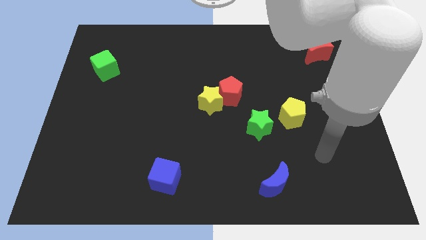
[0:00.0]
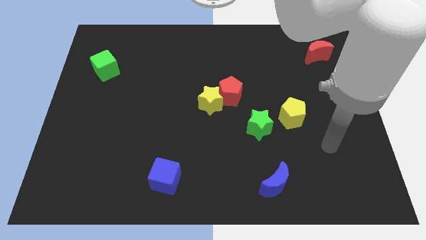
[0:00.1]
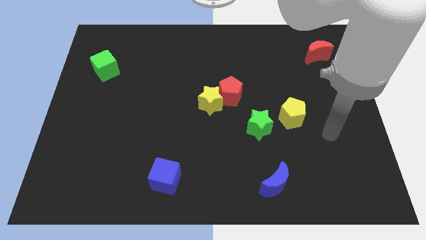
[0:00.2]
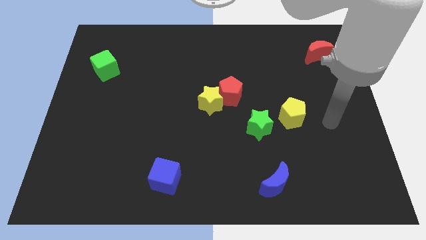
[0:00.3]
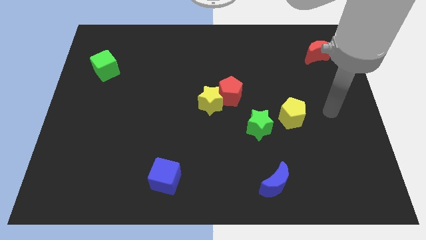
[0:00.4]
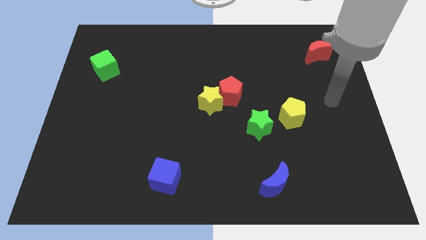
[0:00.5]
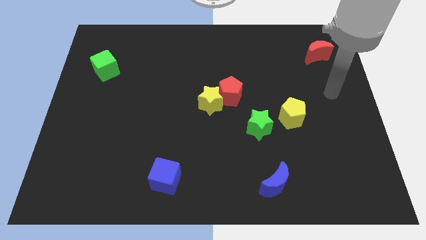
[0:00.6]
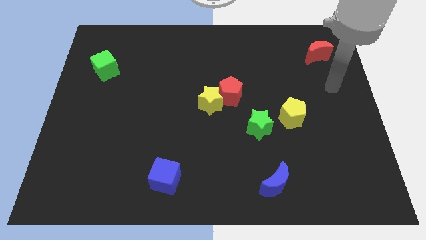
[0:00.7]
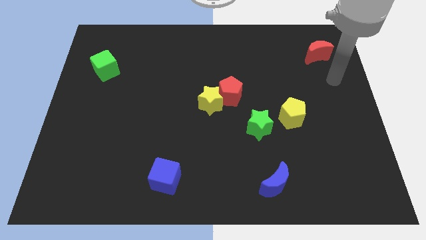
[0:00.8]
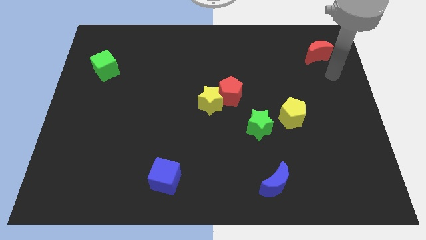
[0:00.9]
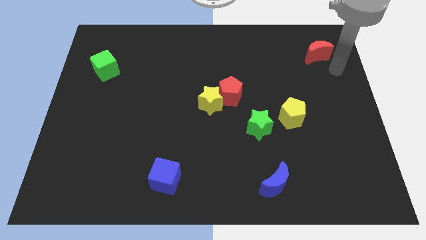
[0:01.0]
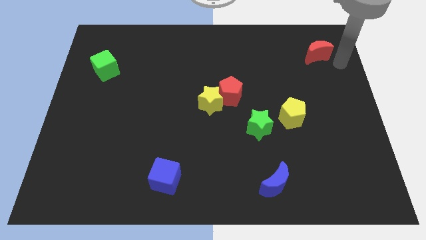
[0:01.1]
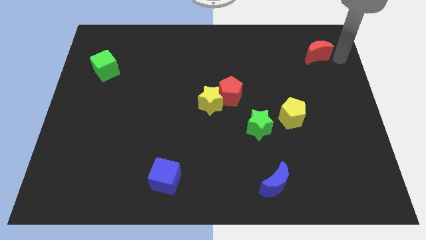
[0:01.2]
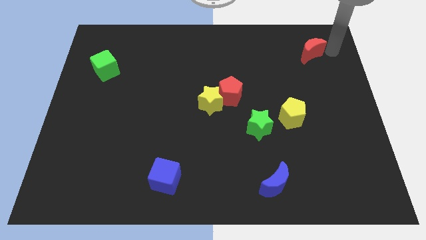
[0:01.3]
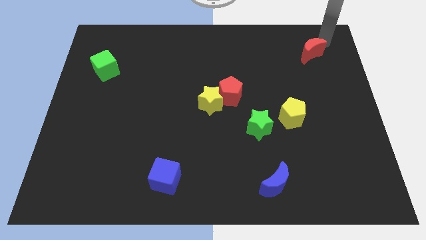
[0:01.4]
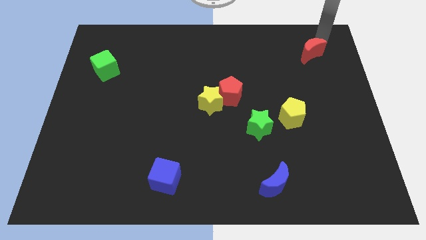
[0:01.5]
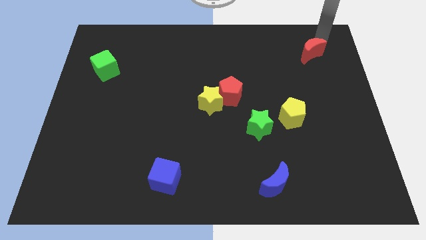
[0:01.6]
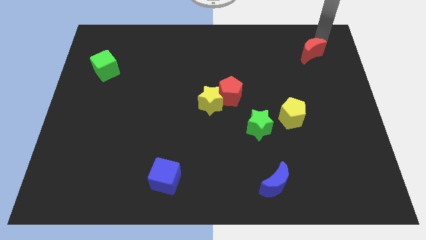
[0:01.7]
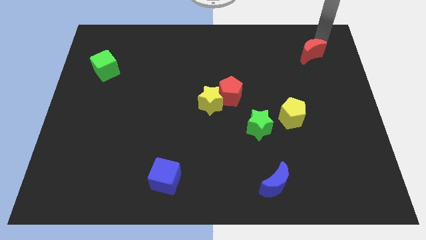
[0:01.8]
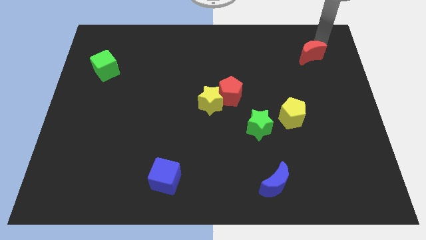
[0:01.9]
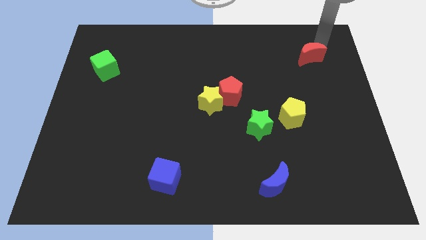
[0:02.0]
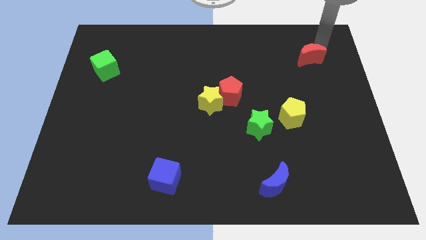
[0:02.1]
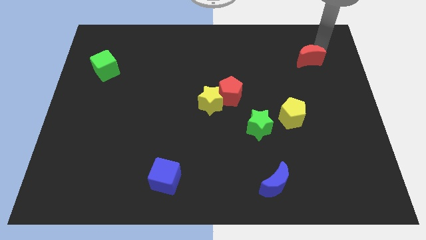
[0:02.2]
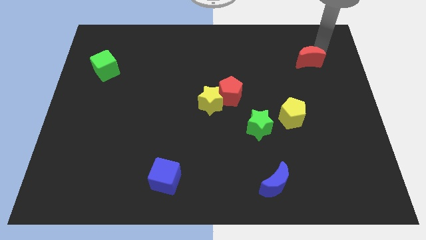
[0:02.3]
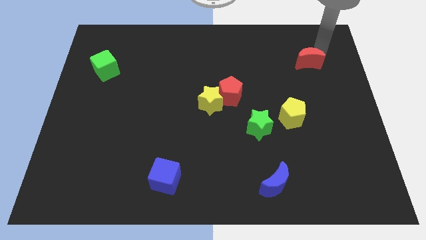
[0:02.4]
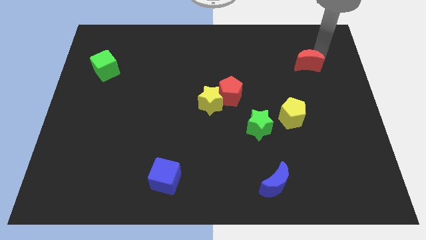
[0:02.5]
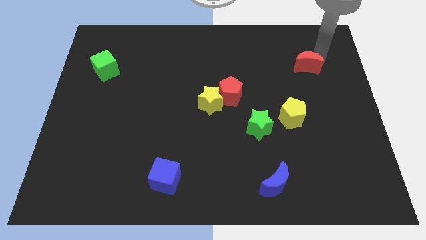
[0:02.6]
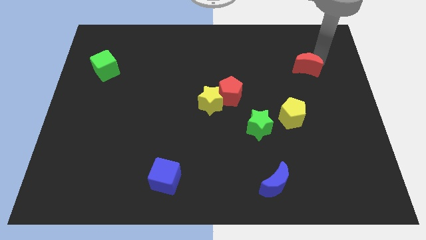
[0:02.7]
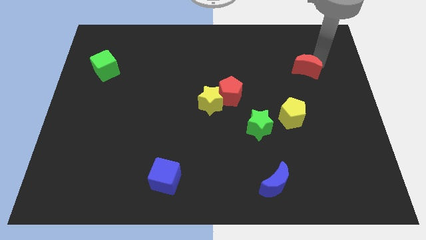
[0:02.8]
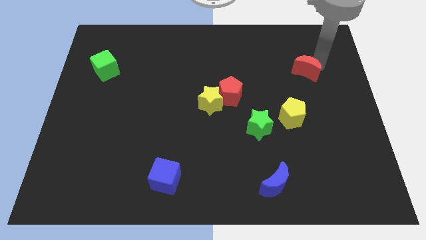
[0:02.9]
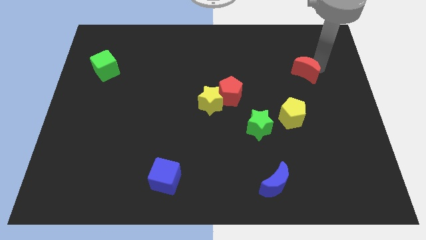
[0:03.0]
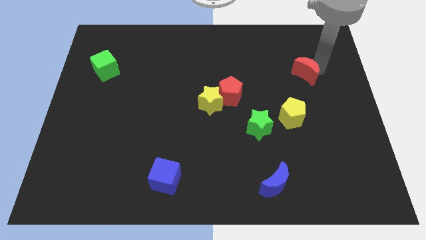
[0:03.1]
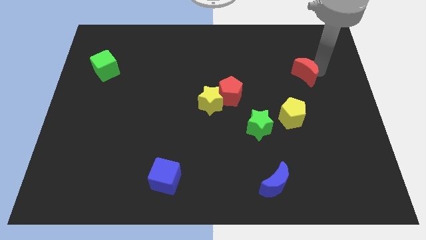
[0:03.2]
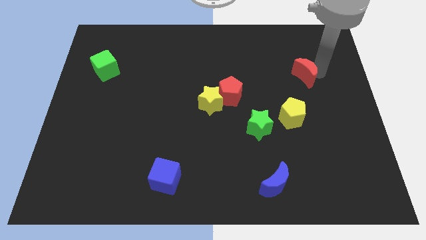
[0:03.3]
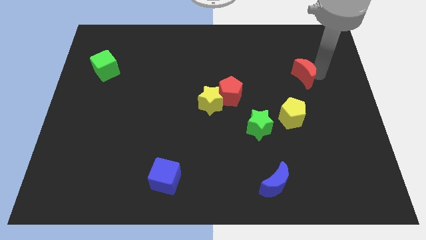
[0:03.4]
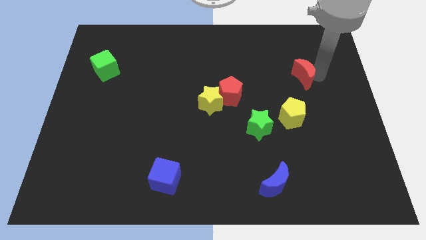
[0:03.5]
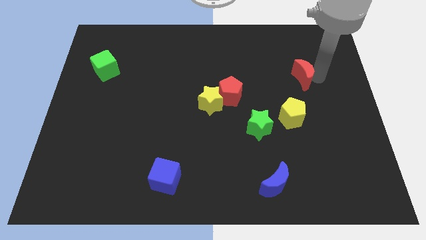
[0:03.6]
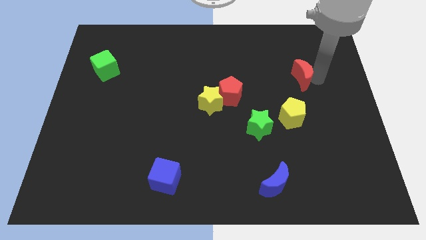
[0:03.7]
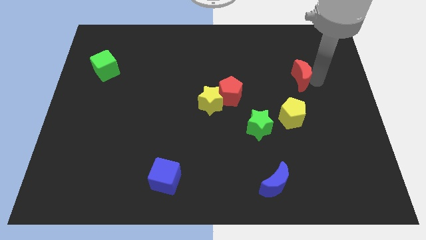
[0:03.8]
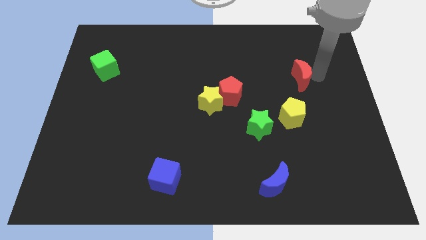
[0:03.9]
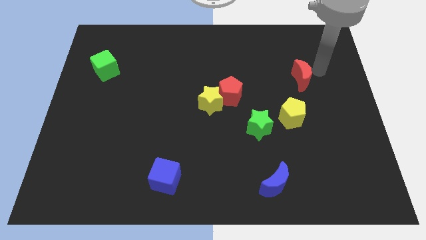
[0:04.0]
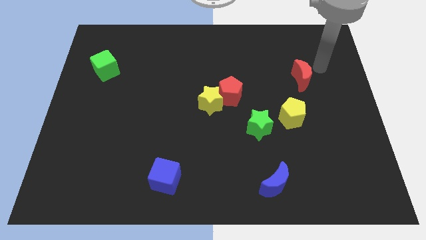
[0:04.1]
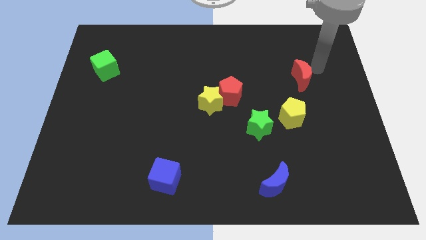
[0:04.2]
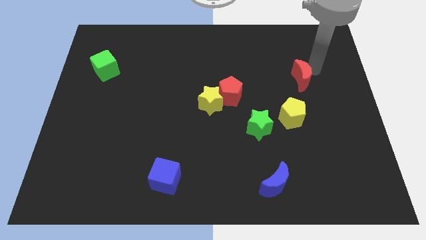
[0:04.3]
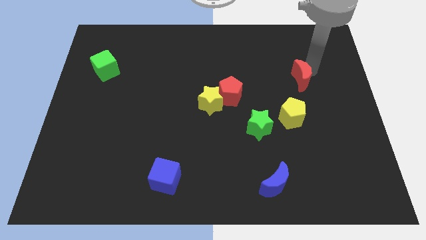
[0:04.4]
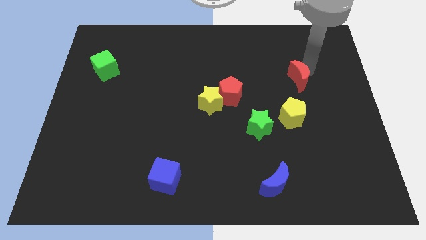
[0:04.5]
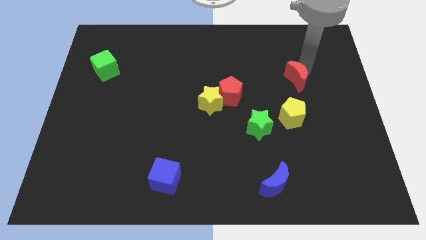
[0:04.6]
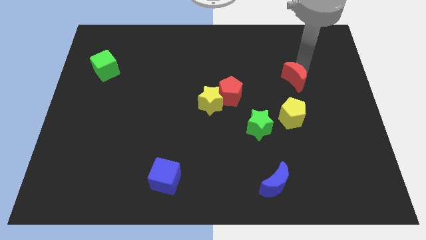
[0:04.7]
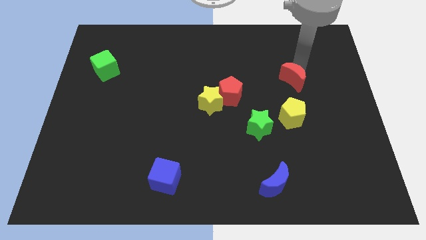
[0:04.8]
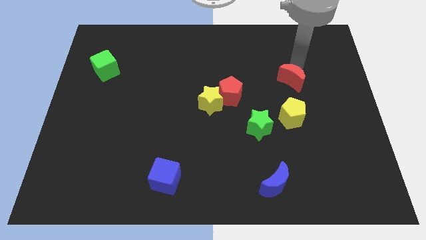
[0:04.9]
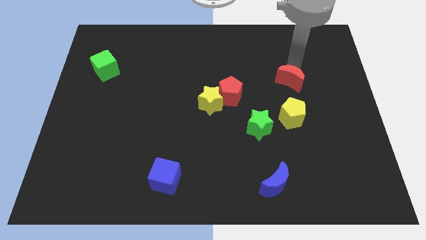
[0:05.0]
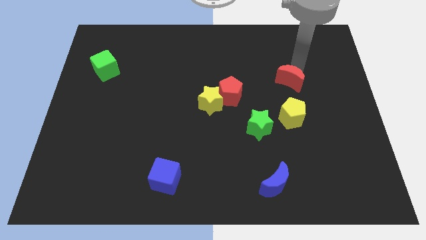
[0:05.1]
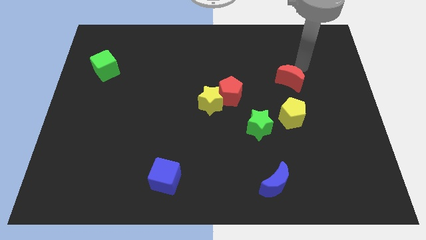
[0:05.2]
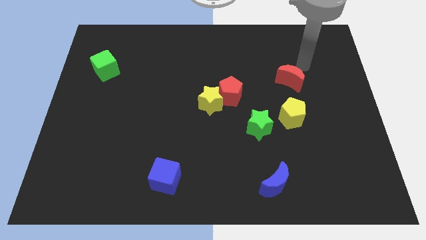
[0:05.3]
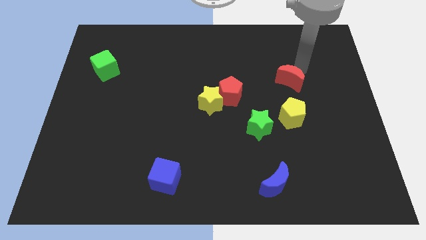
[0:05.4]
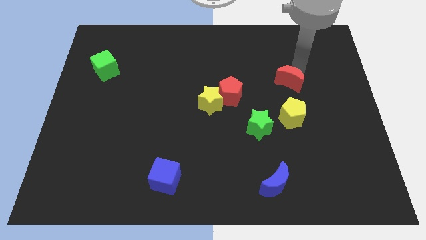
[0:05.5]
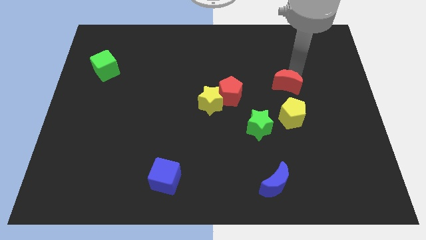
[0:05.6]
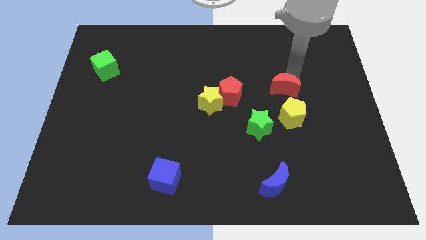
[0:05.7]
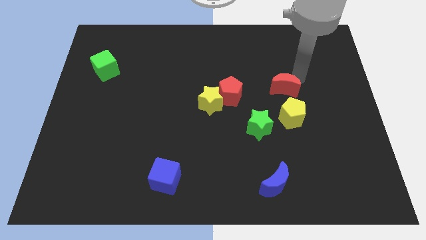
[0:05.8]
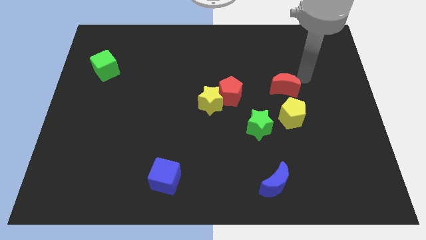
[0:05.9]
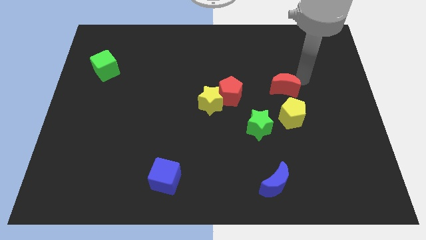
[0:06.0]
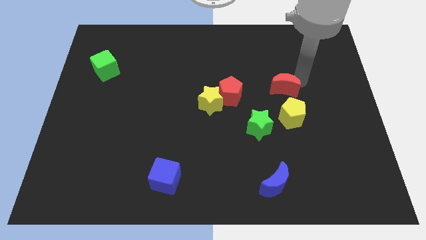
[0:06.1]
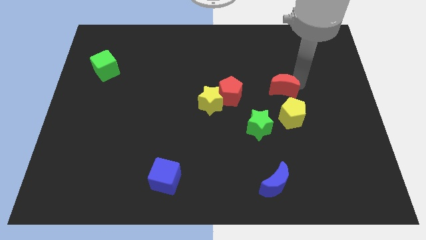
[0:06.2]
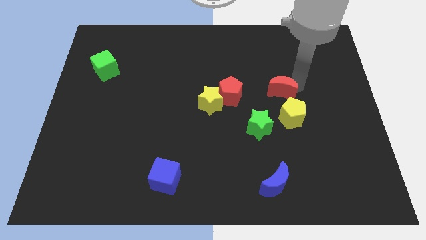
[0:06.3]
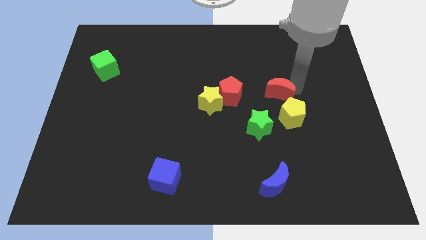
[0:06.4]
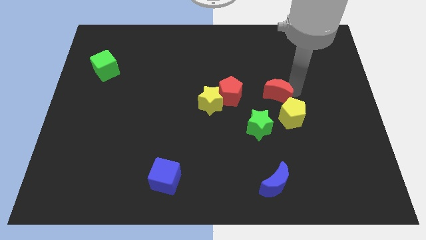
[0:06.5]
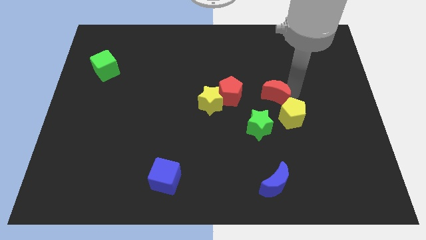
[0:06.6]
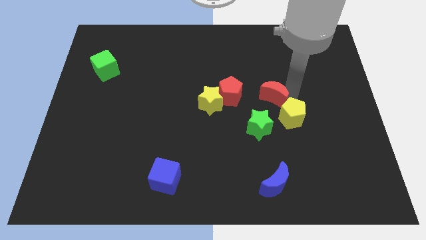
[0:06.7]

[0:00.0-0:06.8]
slide the red moon just right of the yellow star

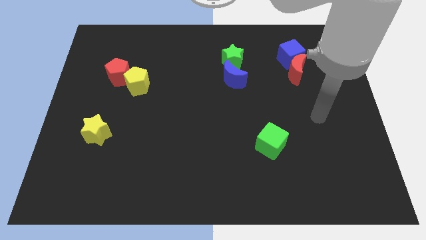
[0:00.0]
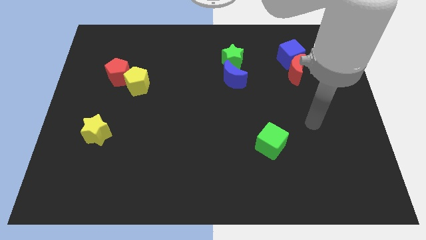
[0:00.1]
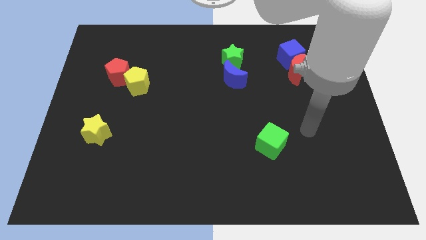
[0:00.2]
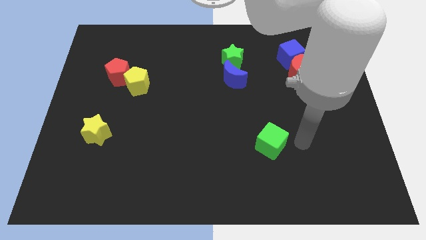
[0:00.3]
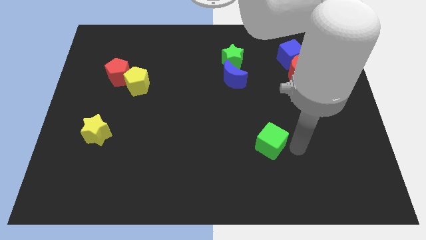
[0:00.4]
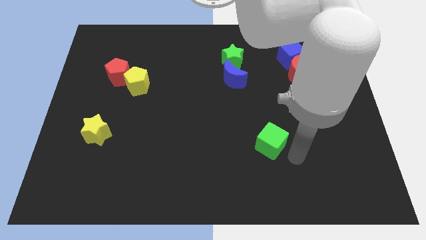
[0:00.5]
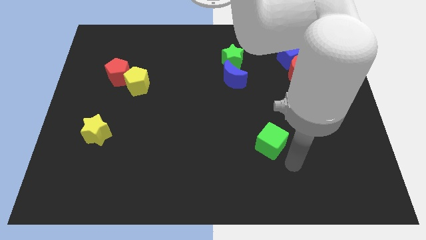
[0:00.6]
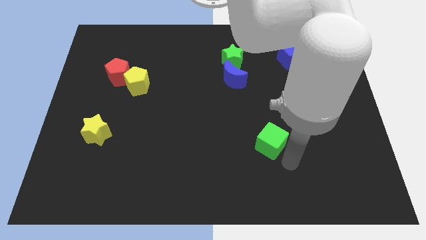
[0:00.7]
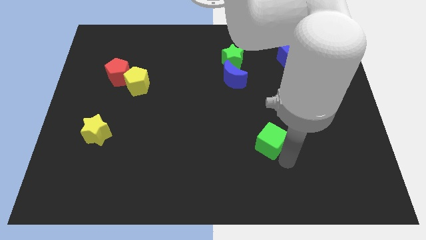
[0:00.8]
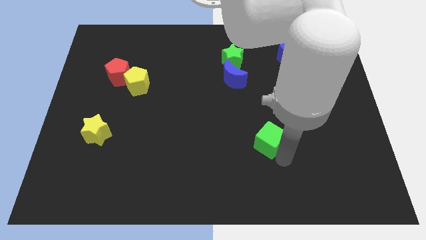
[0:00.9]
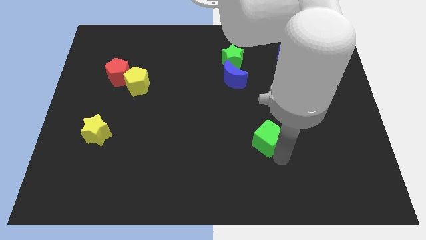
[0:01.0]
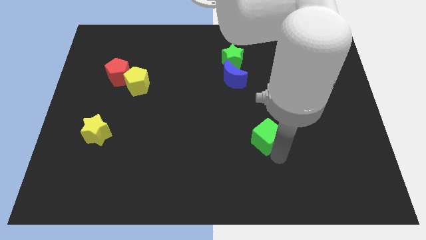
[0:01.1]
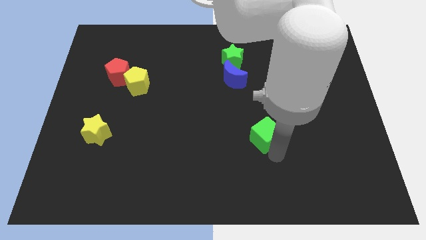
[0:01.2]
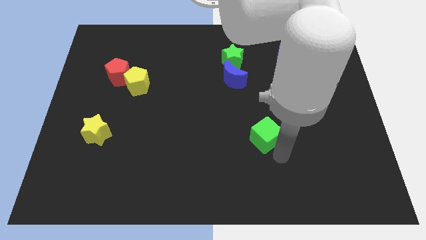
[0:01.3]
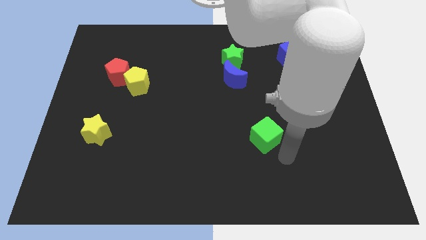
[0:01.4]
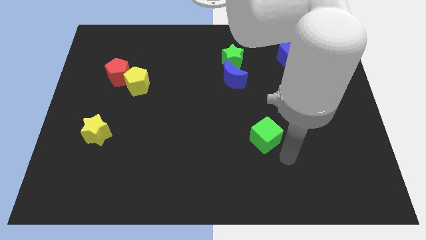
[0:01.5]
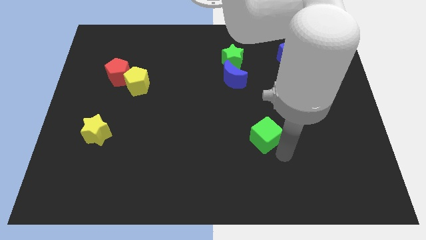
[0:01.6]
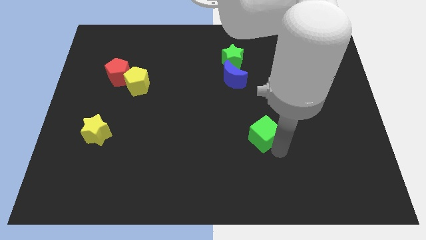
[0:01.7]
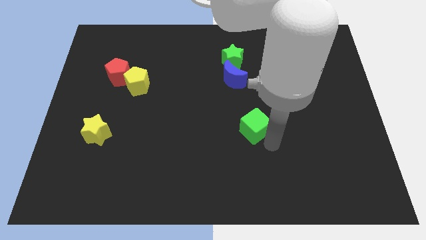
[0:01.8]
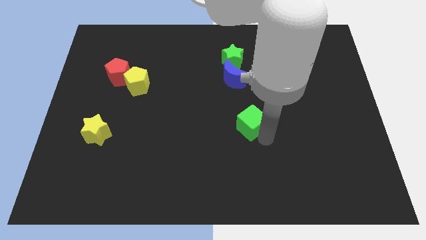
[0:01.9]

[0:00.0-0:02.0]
move the green cube to the bottom of the blue moon
